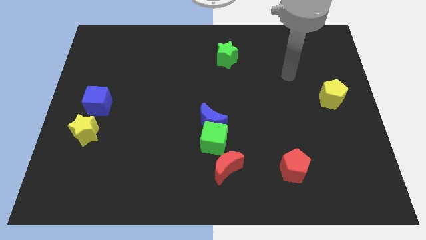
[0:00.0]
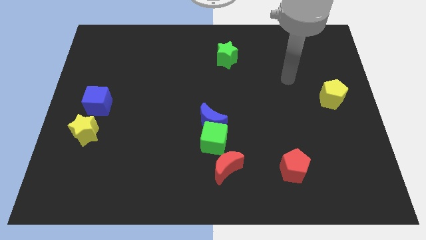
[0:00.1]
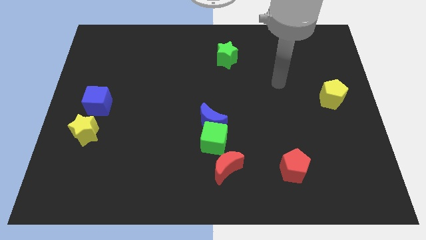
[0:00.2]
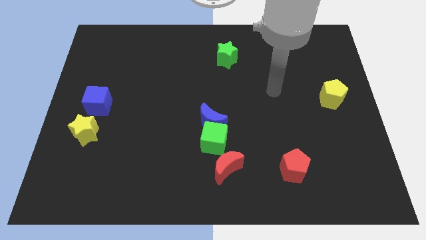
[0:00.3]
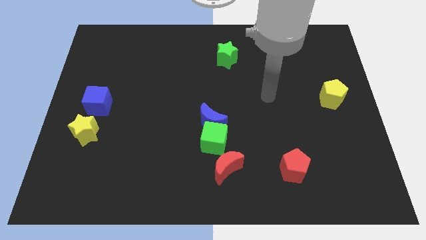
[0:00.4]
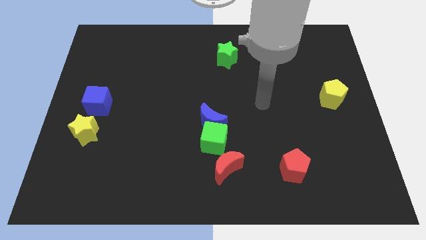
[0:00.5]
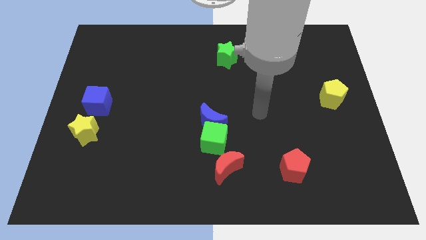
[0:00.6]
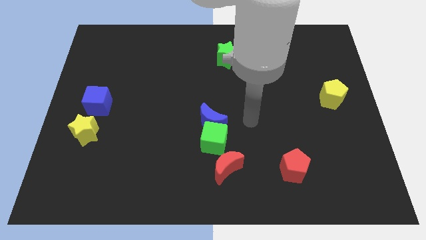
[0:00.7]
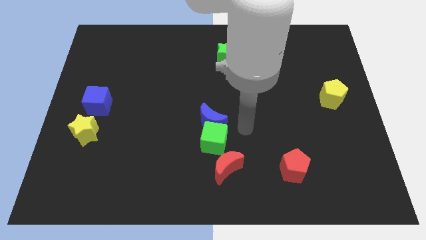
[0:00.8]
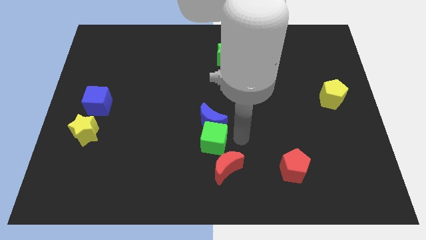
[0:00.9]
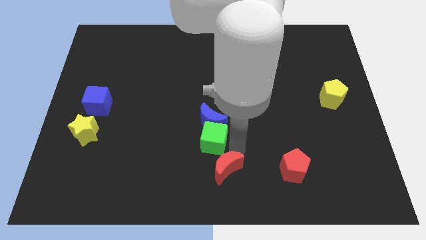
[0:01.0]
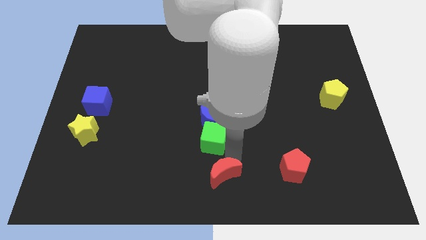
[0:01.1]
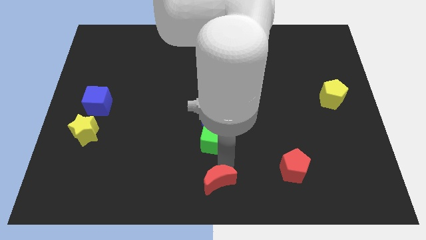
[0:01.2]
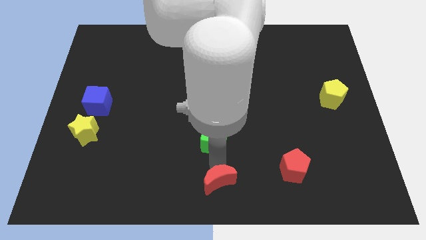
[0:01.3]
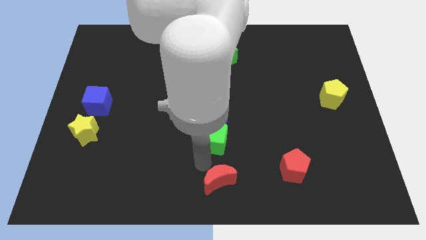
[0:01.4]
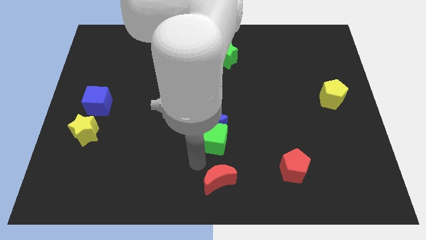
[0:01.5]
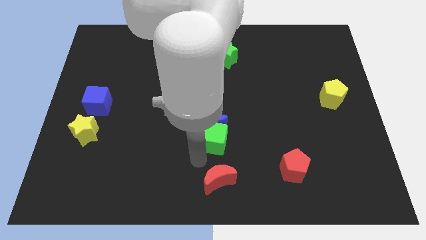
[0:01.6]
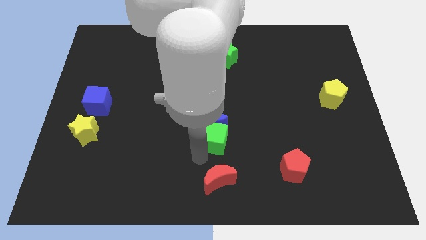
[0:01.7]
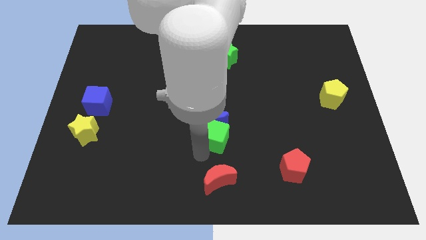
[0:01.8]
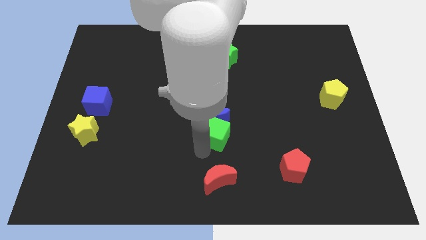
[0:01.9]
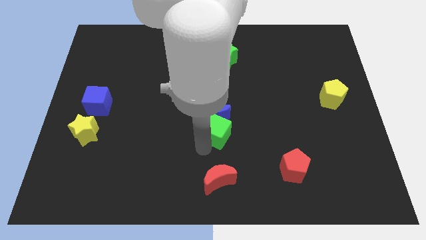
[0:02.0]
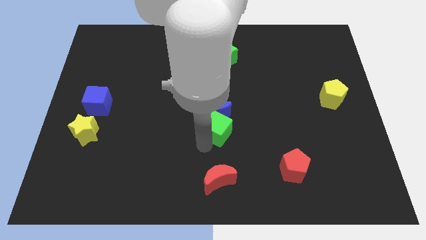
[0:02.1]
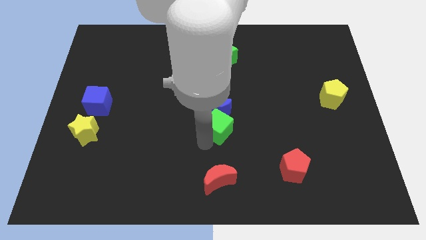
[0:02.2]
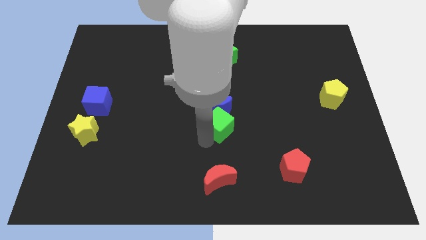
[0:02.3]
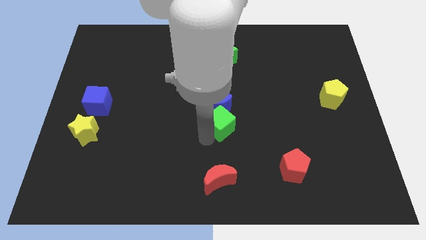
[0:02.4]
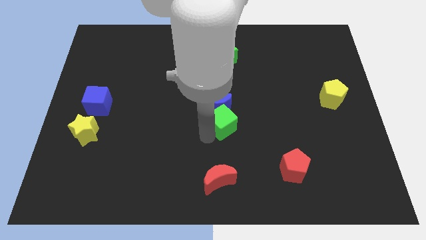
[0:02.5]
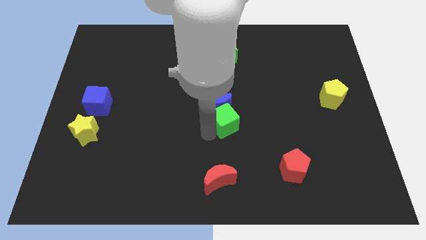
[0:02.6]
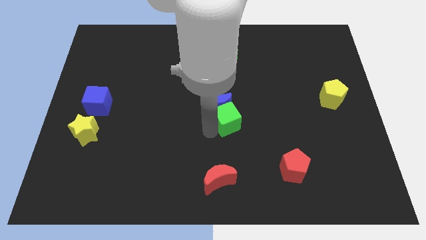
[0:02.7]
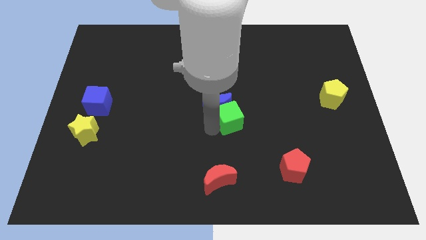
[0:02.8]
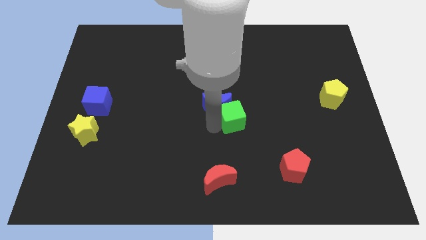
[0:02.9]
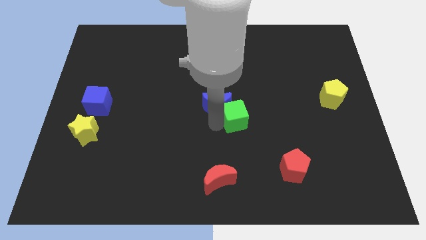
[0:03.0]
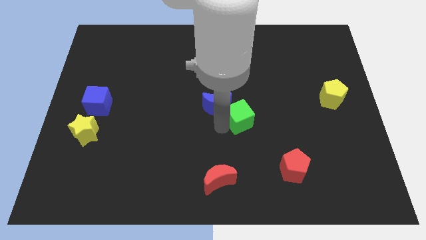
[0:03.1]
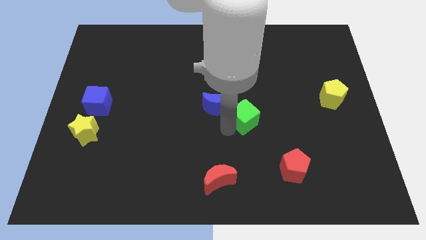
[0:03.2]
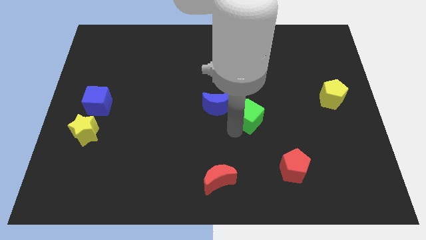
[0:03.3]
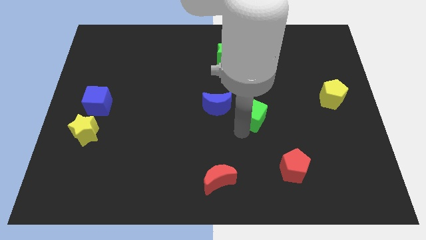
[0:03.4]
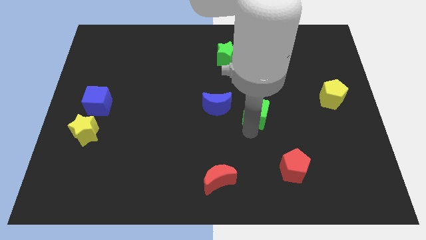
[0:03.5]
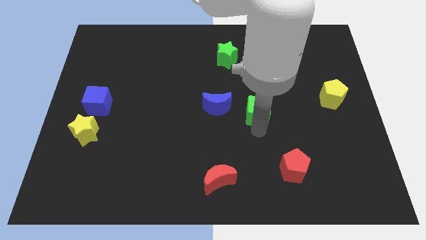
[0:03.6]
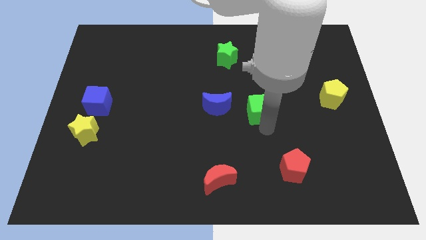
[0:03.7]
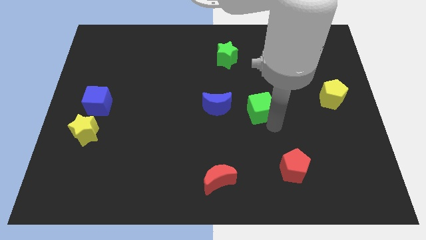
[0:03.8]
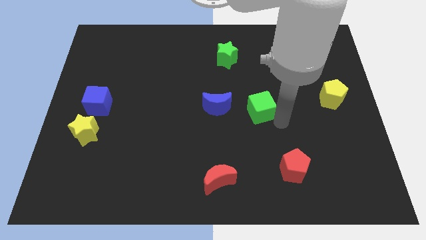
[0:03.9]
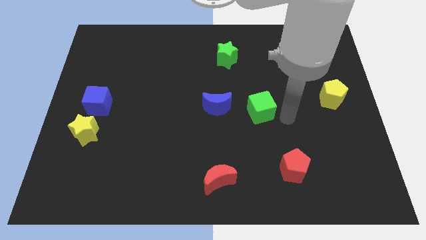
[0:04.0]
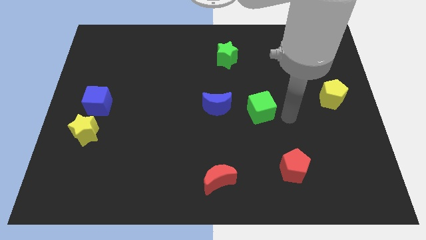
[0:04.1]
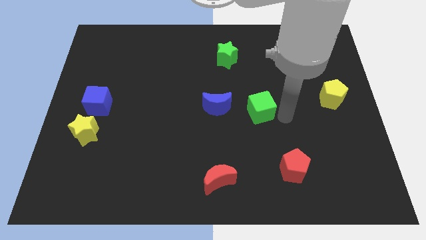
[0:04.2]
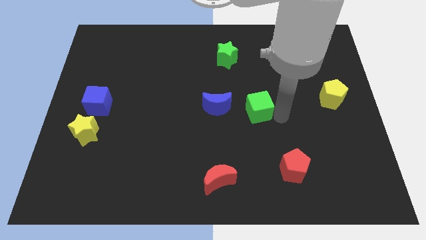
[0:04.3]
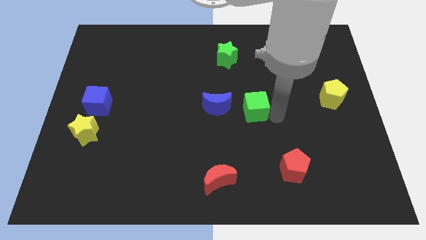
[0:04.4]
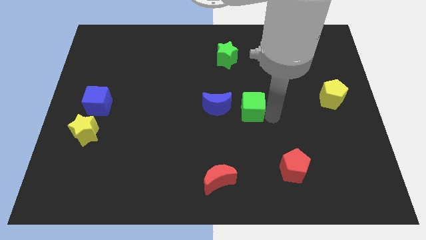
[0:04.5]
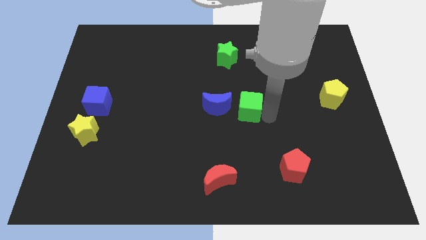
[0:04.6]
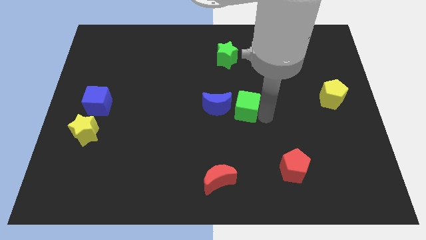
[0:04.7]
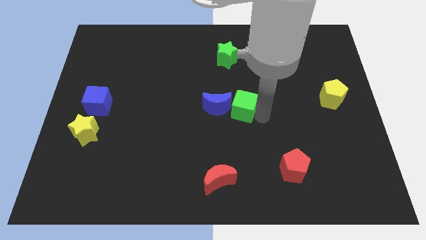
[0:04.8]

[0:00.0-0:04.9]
move the green cube slightly upwards

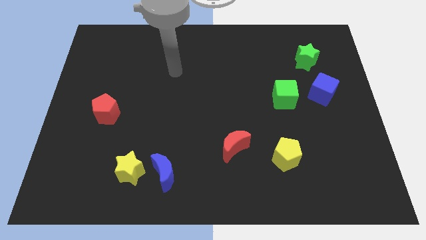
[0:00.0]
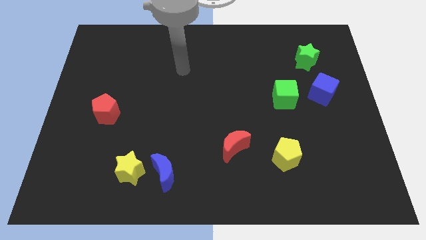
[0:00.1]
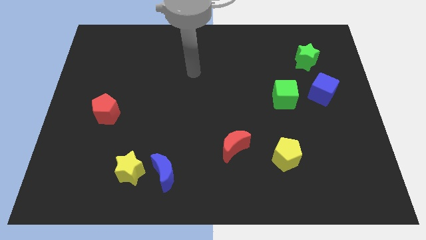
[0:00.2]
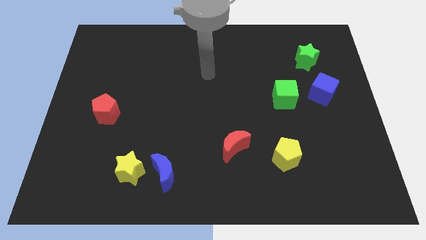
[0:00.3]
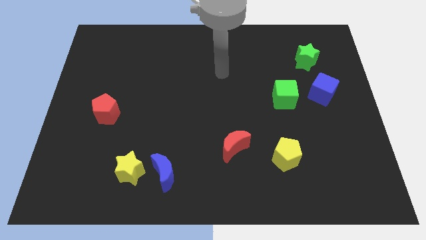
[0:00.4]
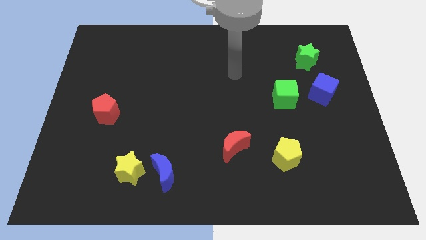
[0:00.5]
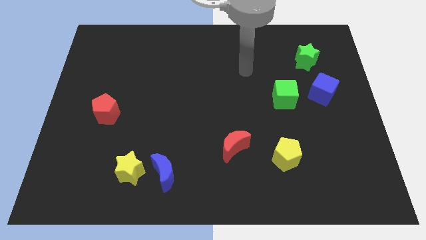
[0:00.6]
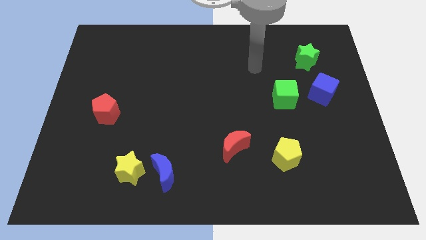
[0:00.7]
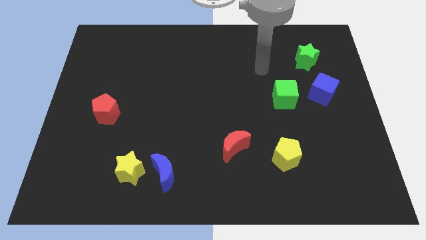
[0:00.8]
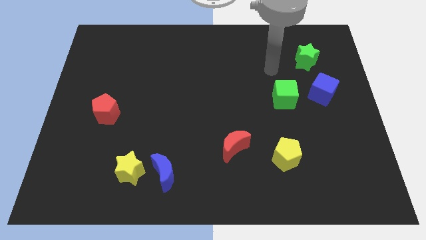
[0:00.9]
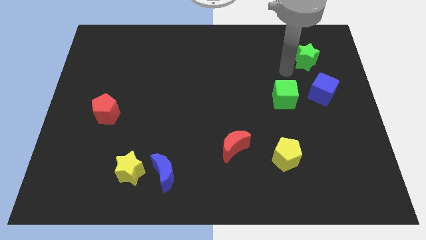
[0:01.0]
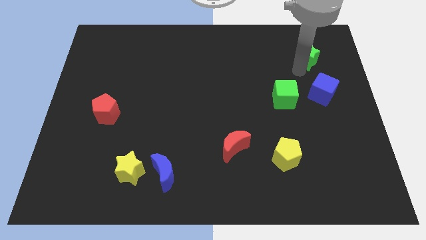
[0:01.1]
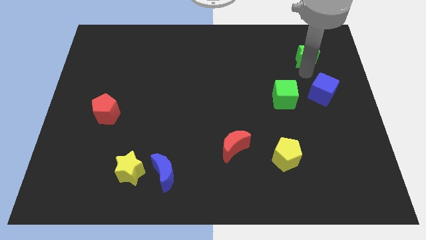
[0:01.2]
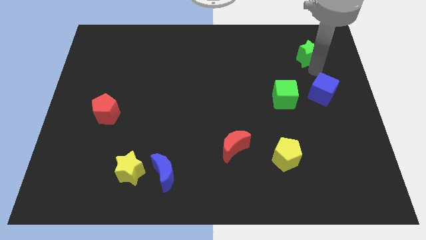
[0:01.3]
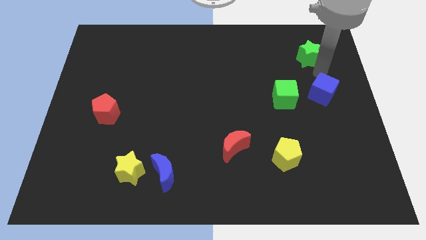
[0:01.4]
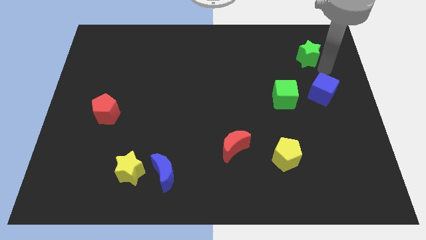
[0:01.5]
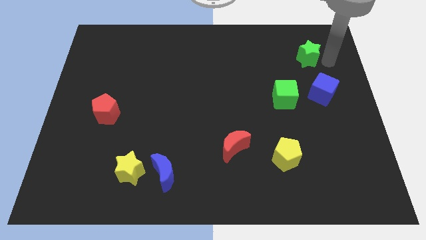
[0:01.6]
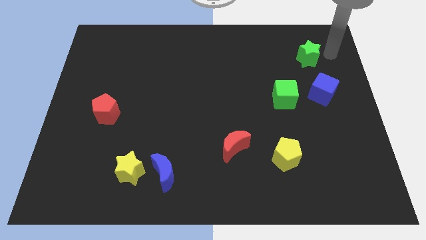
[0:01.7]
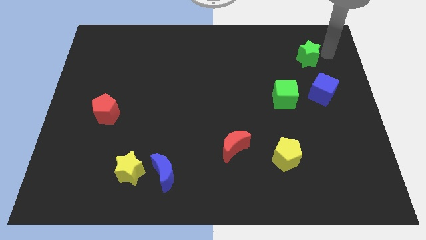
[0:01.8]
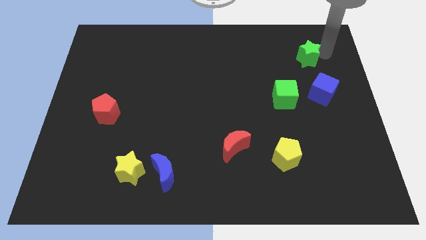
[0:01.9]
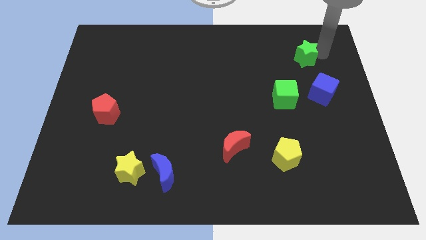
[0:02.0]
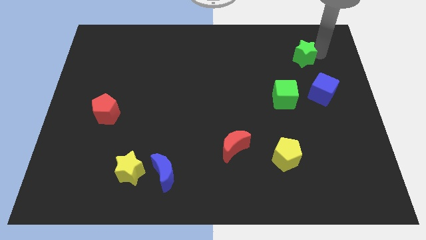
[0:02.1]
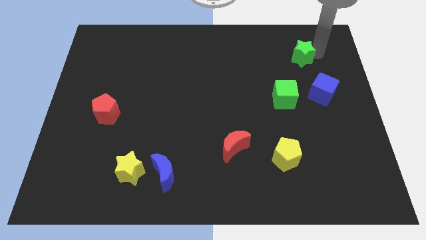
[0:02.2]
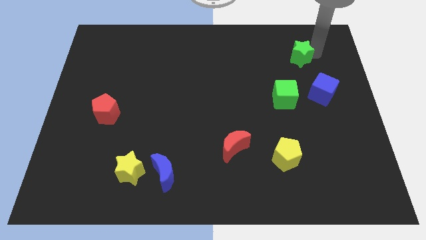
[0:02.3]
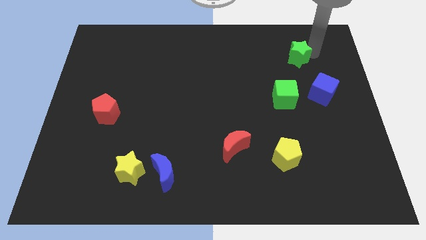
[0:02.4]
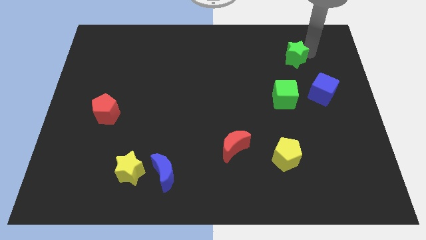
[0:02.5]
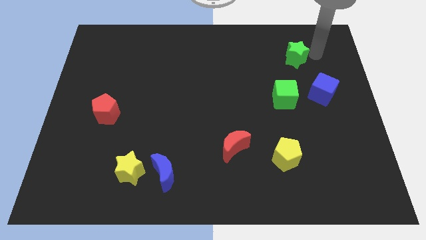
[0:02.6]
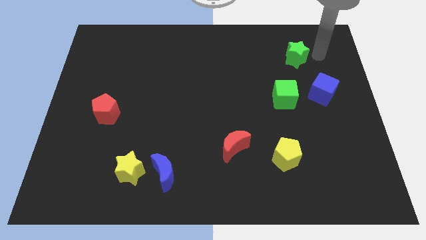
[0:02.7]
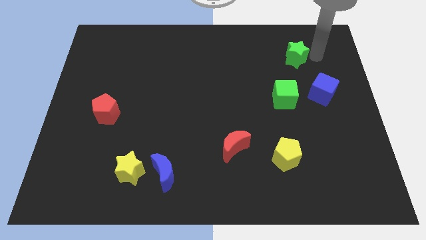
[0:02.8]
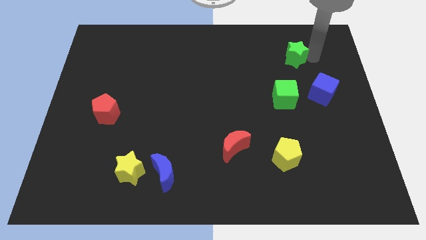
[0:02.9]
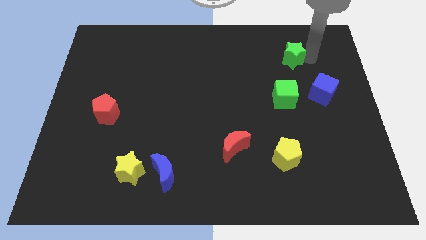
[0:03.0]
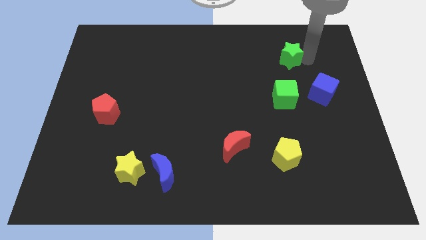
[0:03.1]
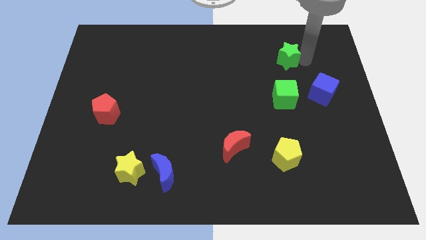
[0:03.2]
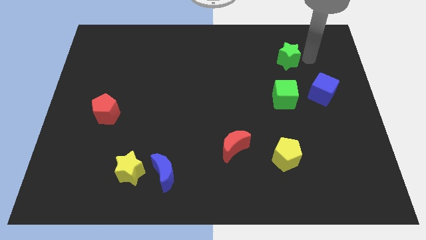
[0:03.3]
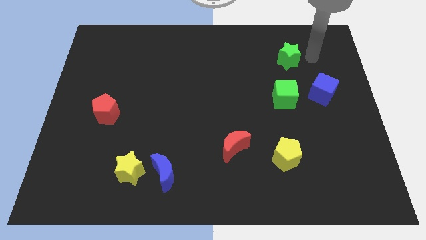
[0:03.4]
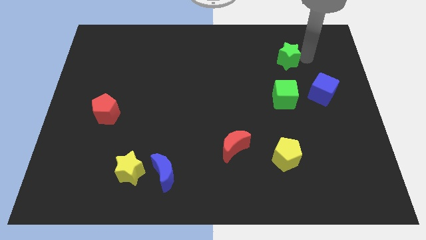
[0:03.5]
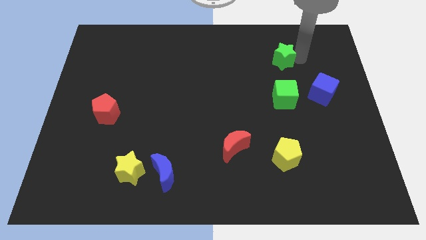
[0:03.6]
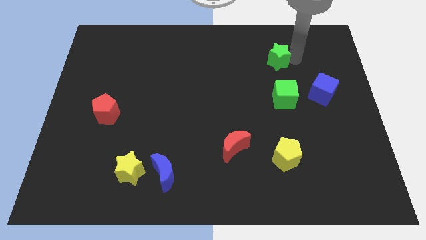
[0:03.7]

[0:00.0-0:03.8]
slightly move the green star to the left
